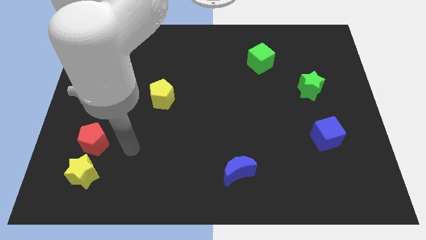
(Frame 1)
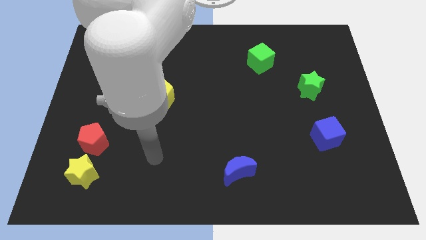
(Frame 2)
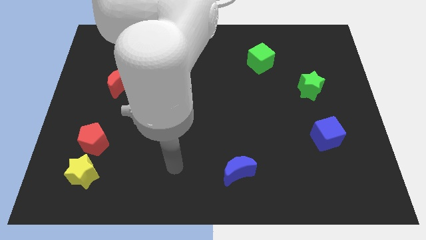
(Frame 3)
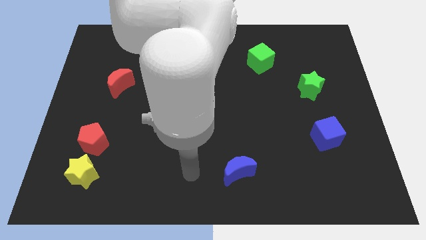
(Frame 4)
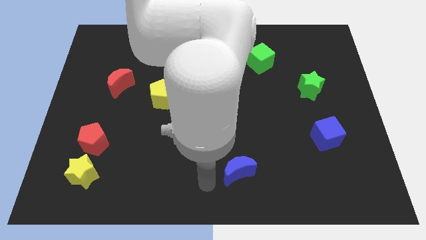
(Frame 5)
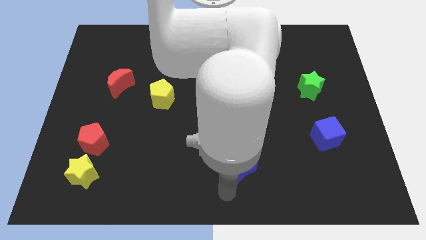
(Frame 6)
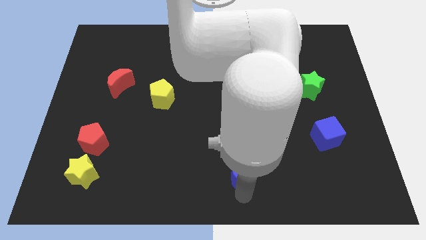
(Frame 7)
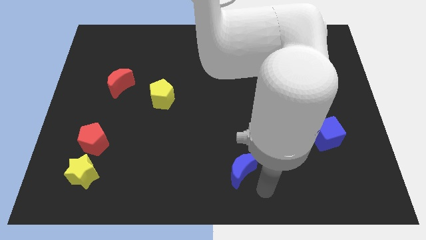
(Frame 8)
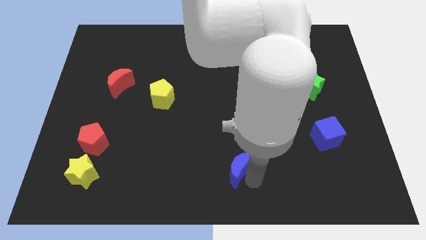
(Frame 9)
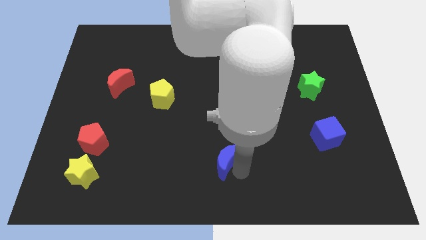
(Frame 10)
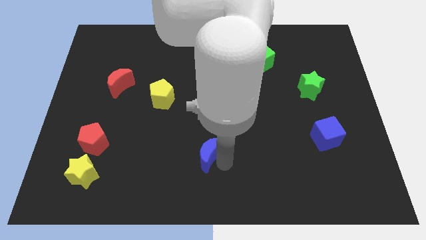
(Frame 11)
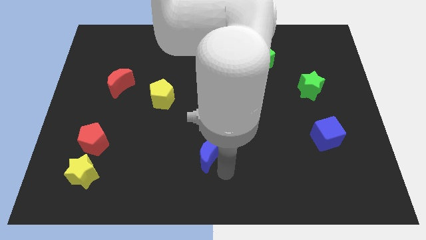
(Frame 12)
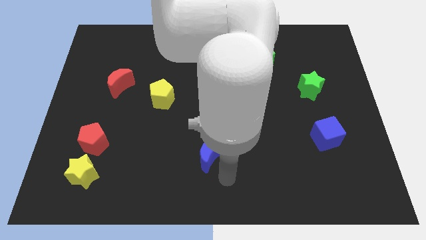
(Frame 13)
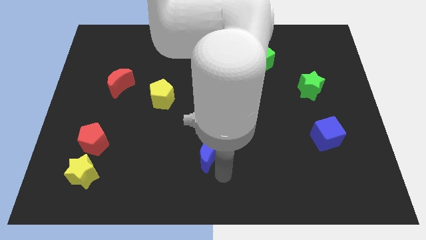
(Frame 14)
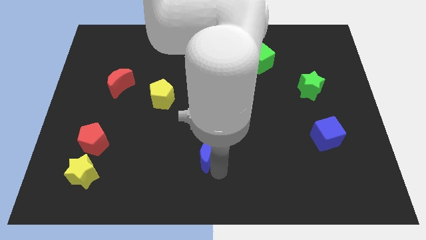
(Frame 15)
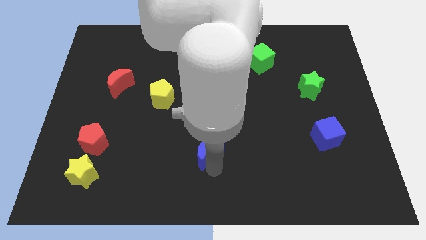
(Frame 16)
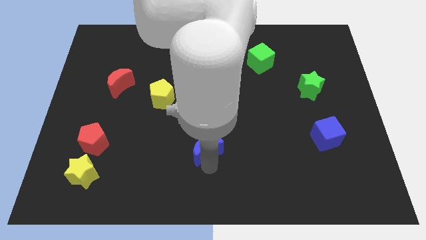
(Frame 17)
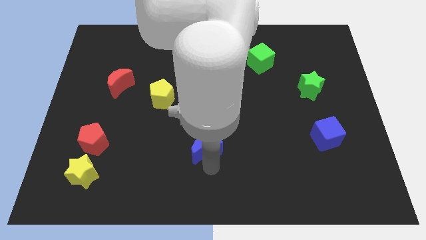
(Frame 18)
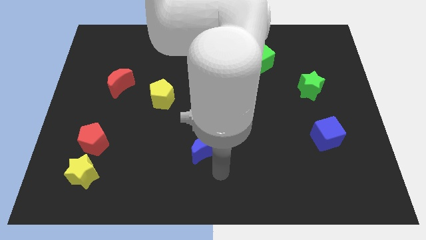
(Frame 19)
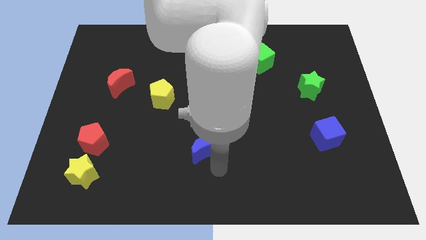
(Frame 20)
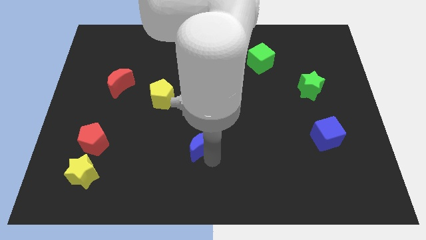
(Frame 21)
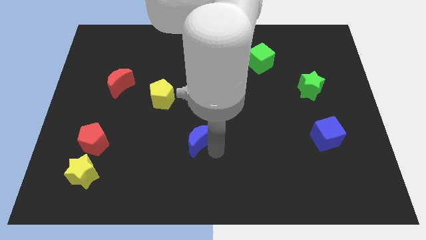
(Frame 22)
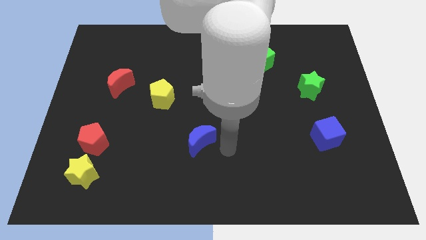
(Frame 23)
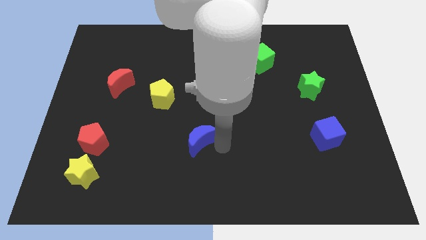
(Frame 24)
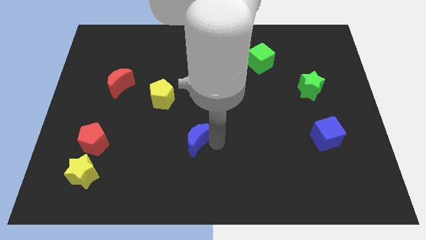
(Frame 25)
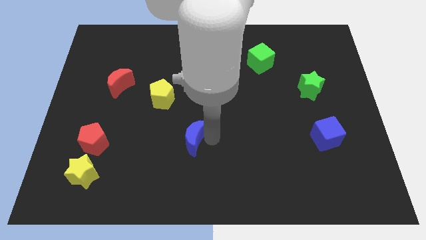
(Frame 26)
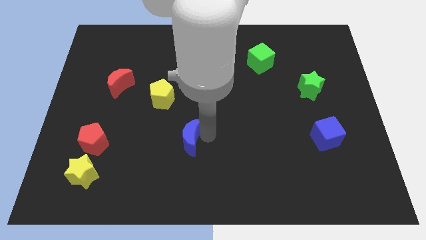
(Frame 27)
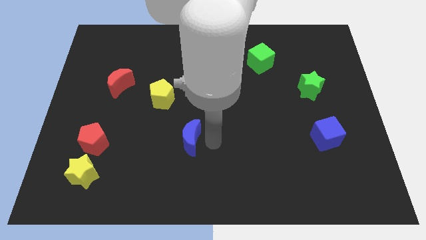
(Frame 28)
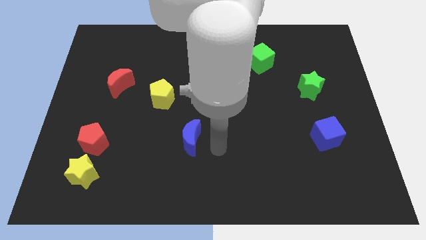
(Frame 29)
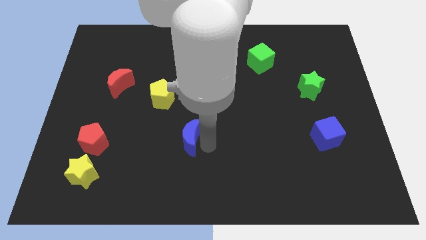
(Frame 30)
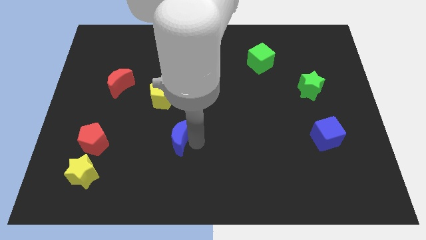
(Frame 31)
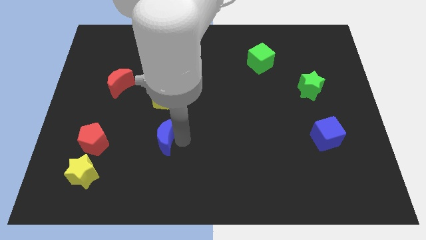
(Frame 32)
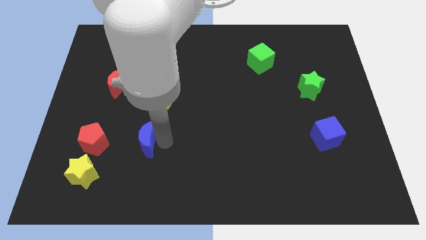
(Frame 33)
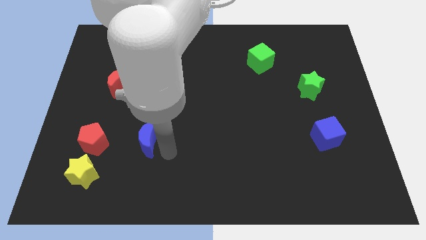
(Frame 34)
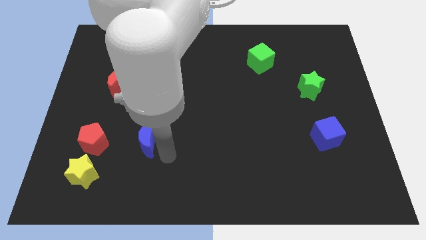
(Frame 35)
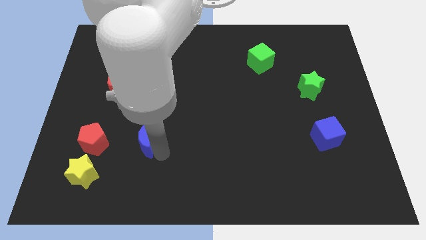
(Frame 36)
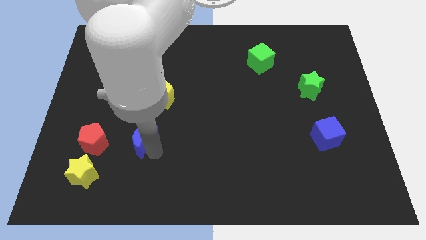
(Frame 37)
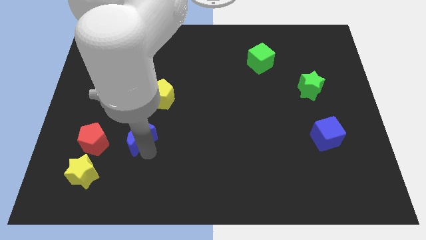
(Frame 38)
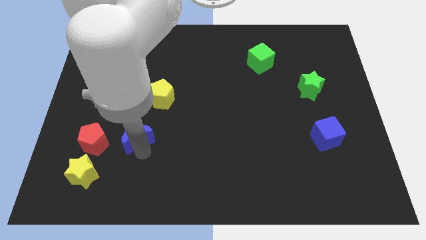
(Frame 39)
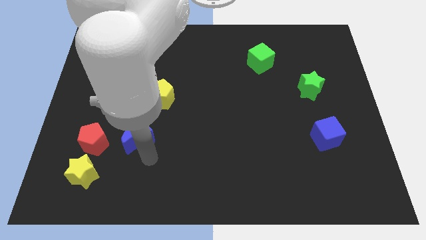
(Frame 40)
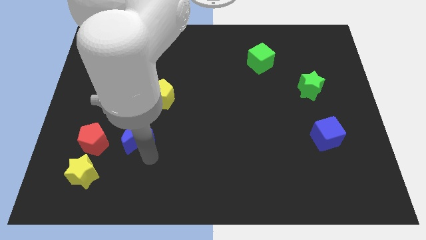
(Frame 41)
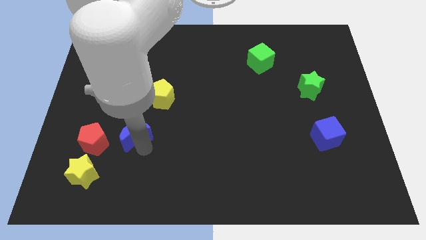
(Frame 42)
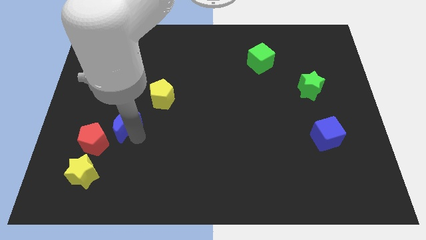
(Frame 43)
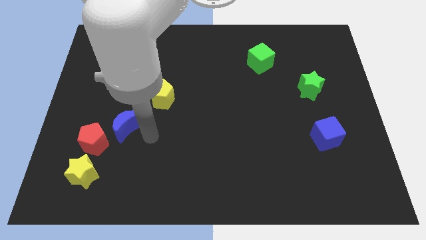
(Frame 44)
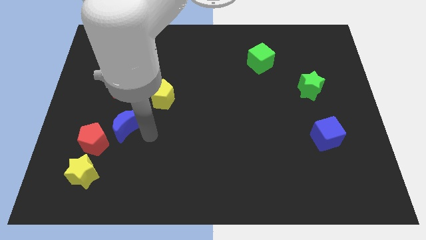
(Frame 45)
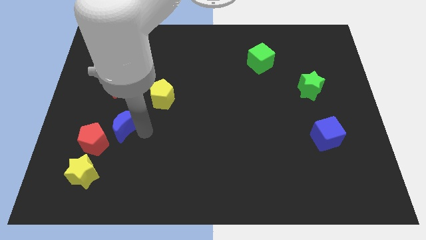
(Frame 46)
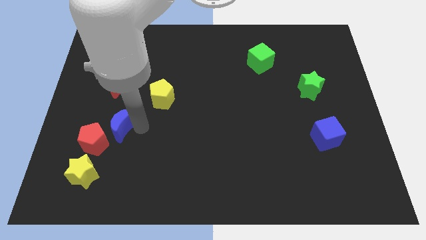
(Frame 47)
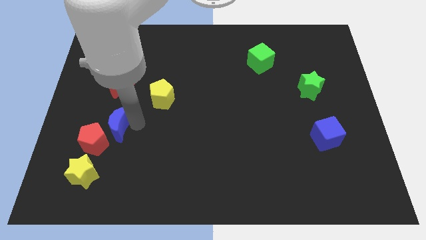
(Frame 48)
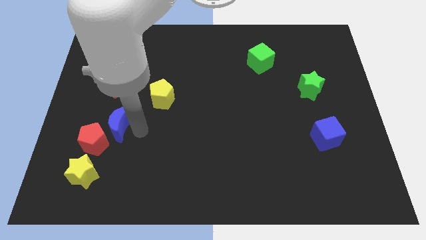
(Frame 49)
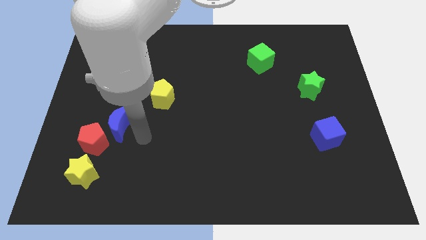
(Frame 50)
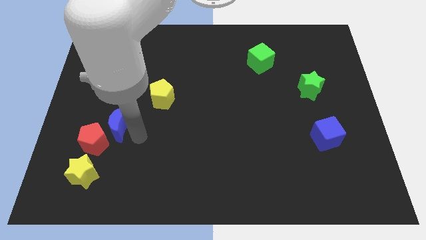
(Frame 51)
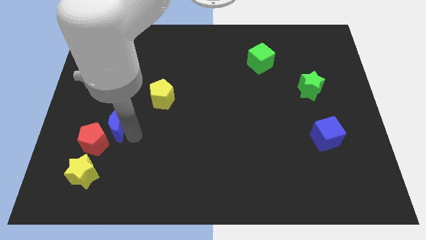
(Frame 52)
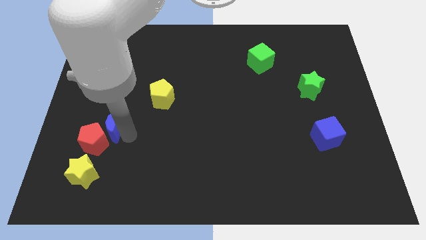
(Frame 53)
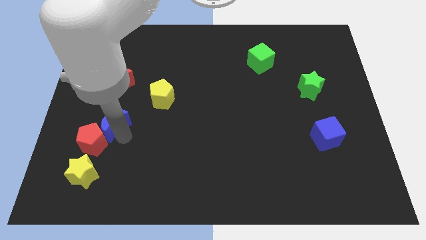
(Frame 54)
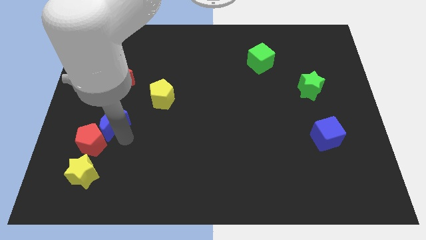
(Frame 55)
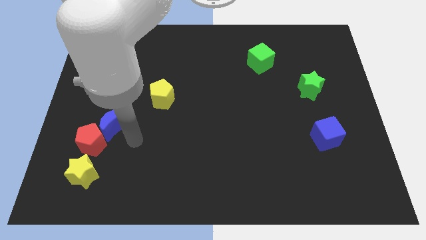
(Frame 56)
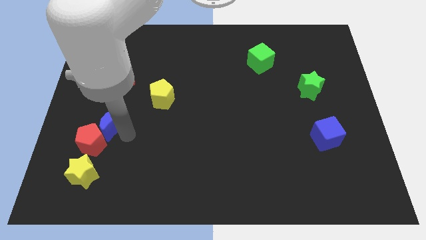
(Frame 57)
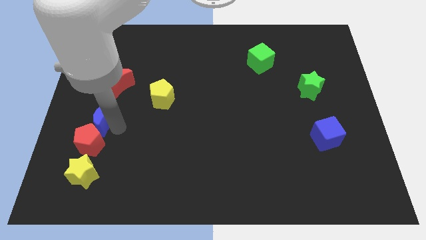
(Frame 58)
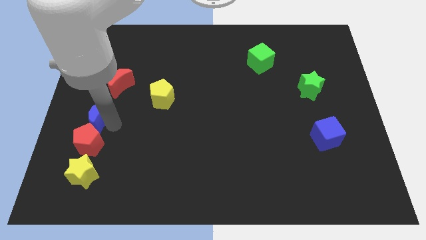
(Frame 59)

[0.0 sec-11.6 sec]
push the blue moon to the left side of the board
